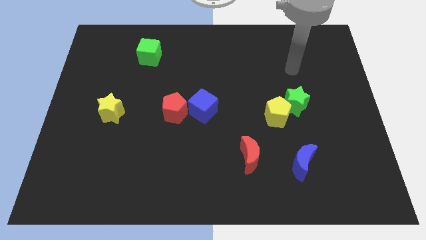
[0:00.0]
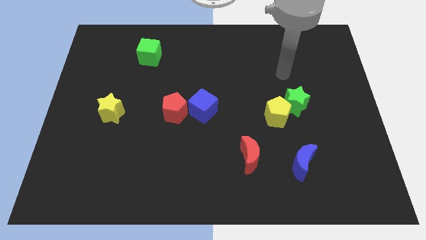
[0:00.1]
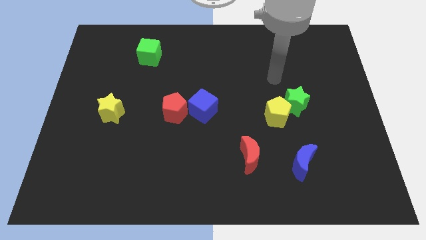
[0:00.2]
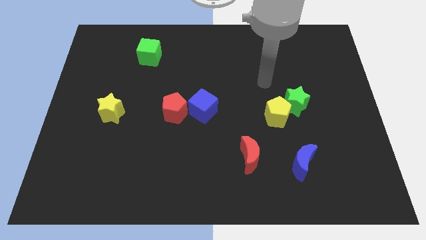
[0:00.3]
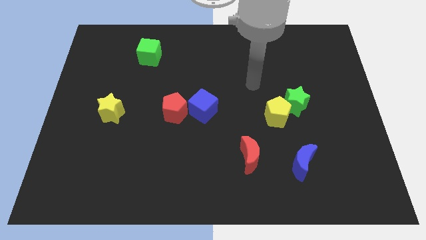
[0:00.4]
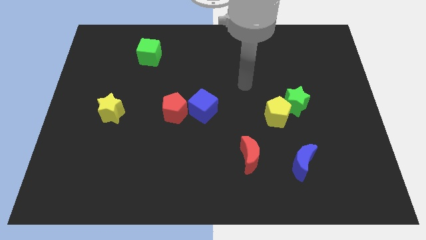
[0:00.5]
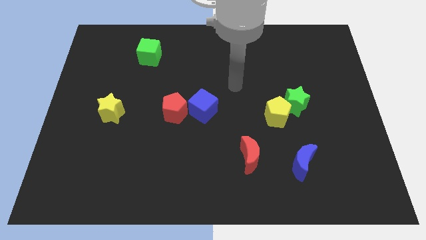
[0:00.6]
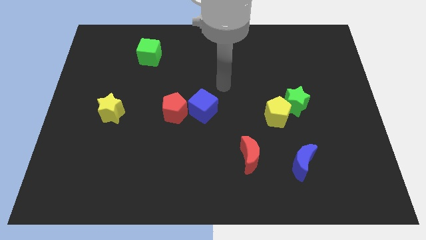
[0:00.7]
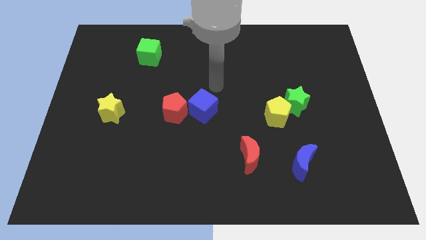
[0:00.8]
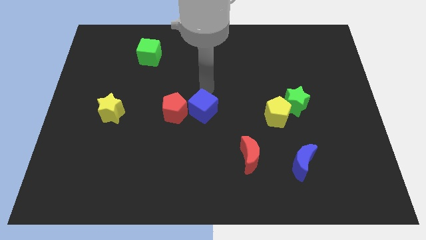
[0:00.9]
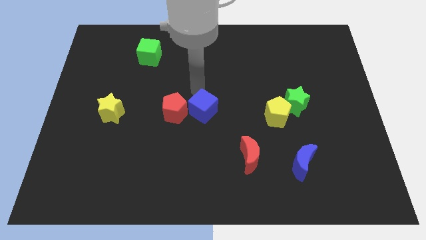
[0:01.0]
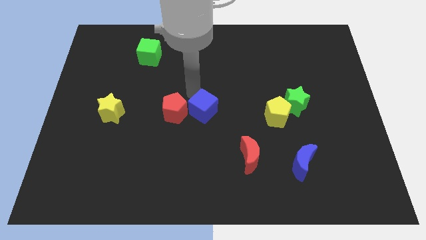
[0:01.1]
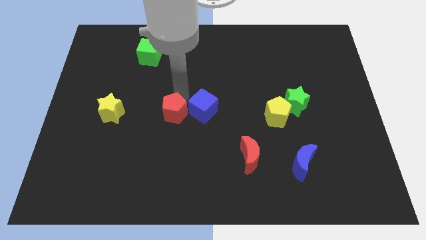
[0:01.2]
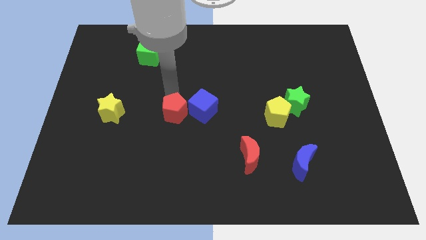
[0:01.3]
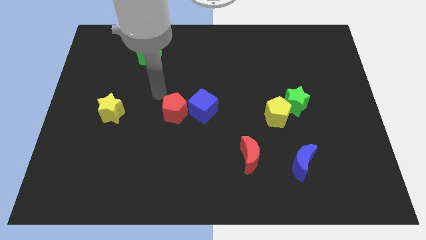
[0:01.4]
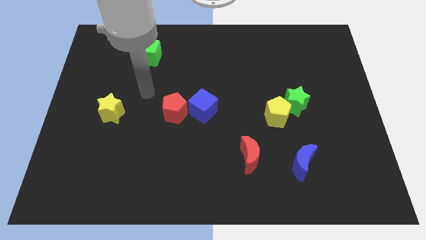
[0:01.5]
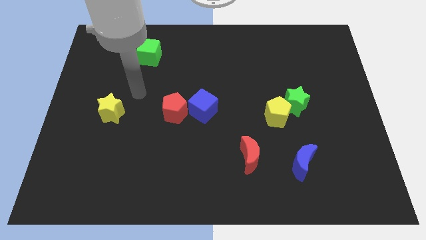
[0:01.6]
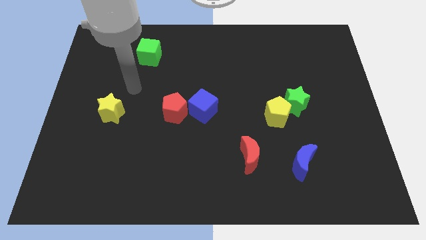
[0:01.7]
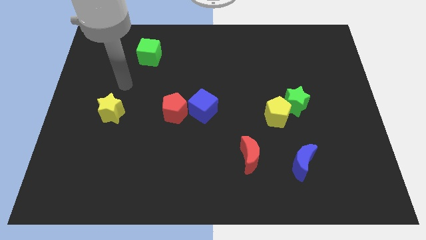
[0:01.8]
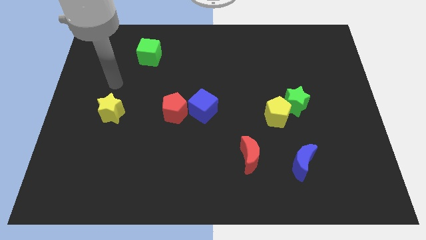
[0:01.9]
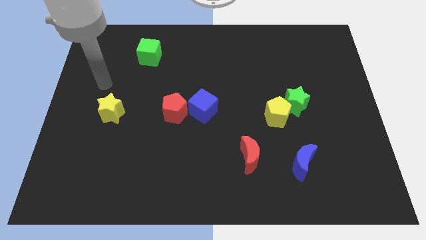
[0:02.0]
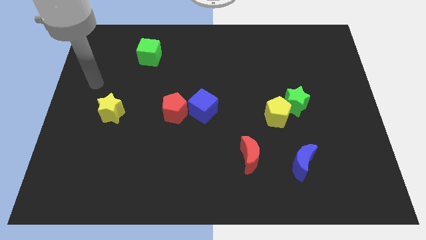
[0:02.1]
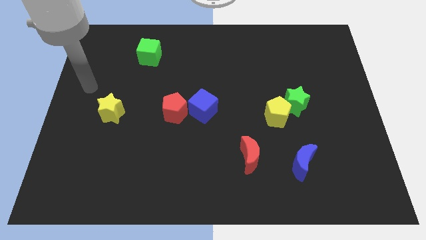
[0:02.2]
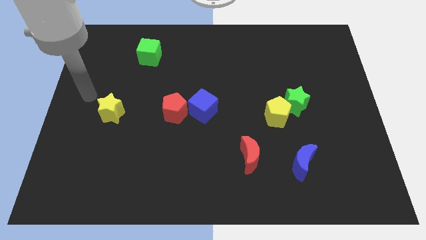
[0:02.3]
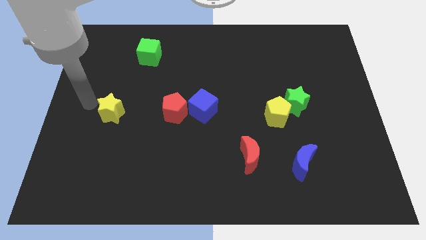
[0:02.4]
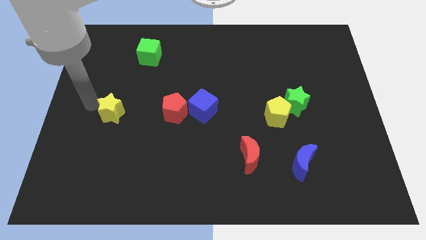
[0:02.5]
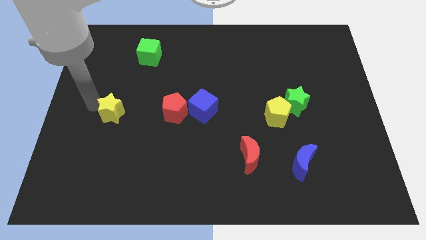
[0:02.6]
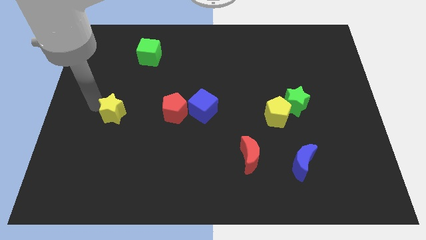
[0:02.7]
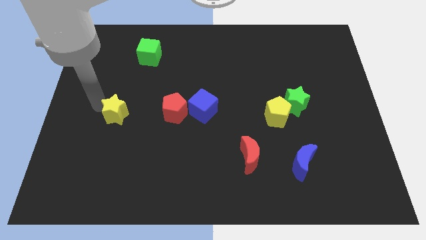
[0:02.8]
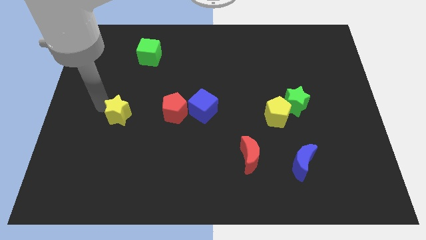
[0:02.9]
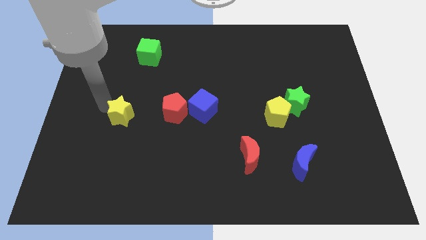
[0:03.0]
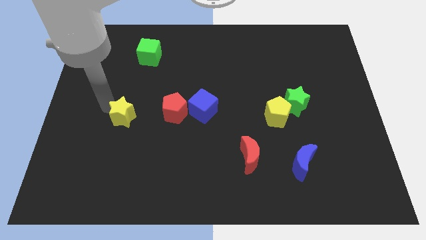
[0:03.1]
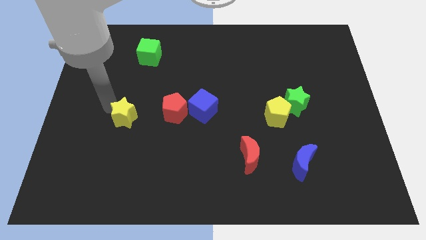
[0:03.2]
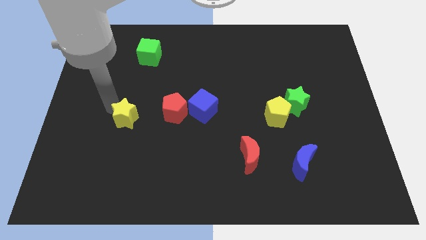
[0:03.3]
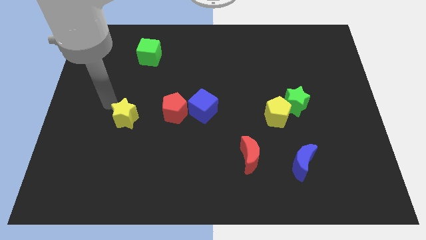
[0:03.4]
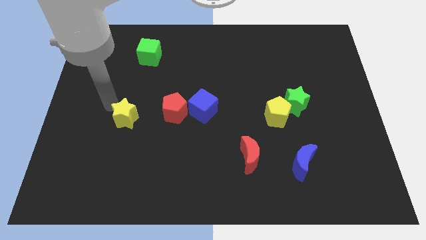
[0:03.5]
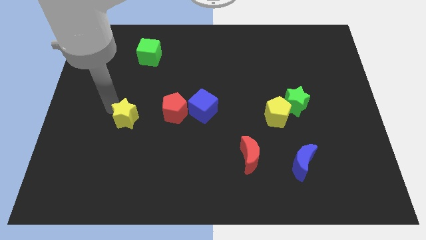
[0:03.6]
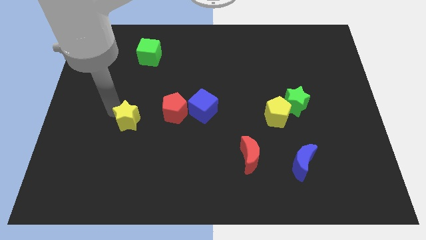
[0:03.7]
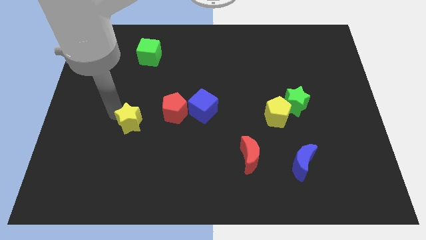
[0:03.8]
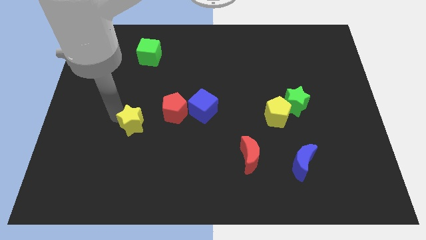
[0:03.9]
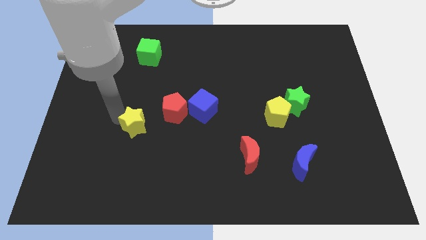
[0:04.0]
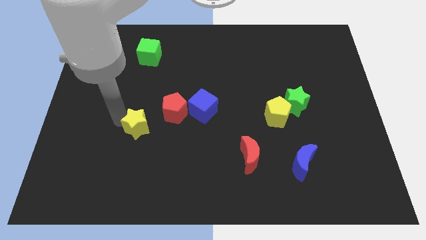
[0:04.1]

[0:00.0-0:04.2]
push the yellow star a bit down and then to the right

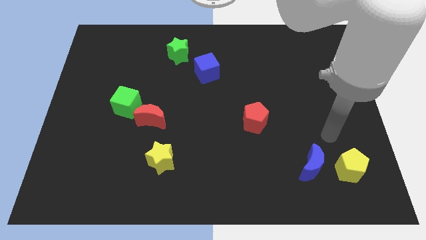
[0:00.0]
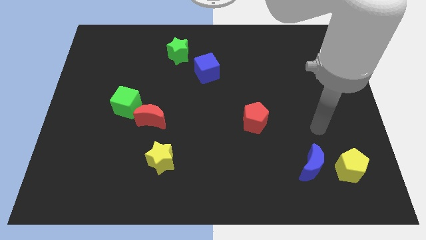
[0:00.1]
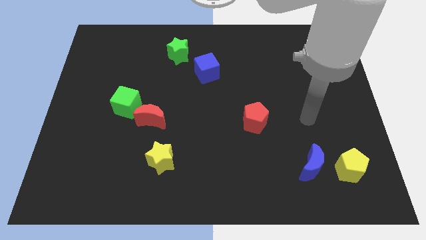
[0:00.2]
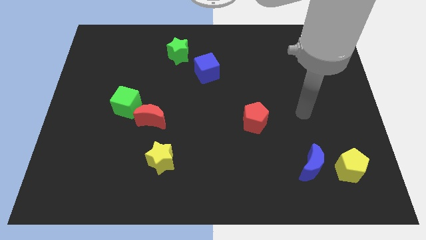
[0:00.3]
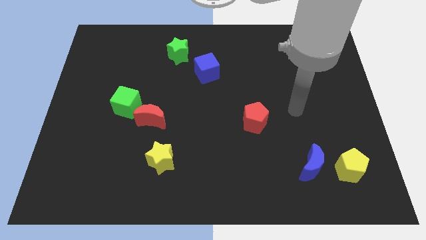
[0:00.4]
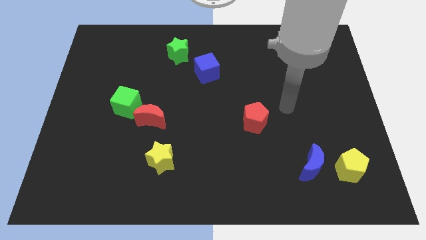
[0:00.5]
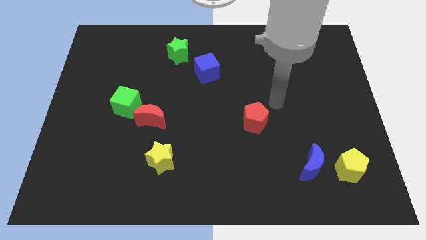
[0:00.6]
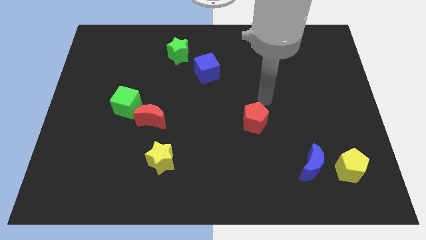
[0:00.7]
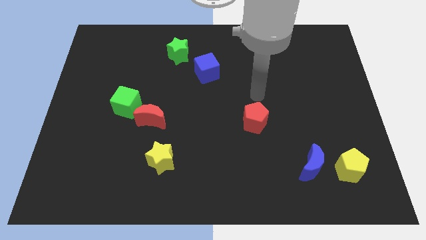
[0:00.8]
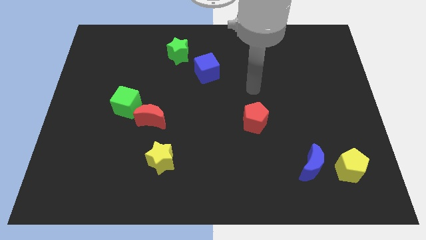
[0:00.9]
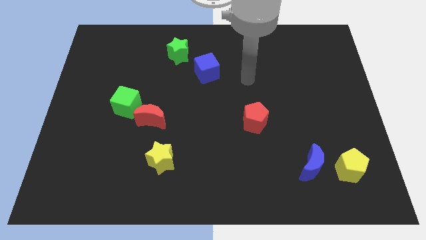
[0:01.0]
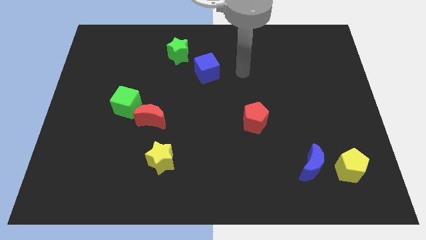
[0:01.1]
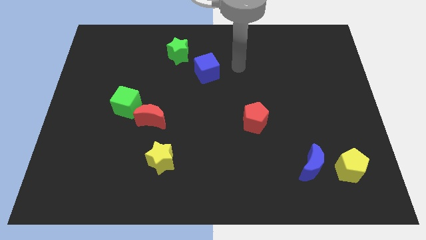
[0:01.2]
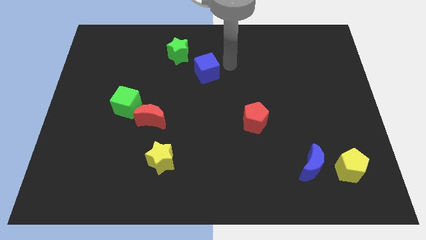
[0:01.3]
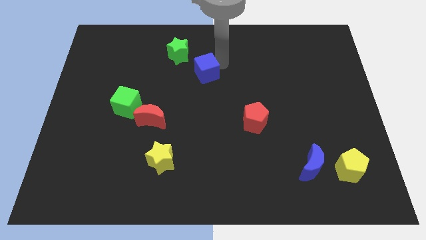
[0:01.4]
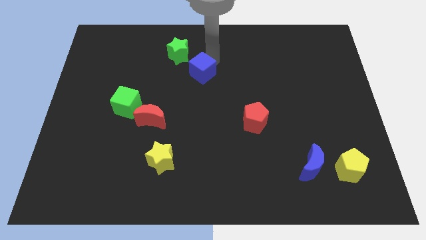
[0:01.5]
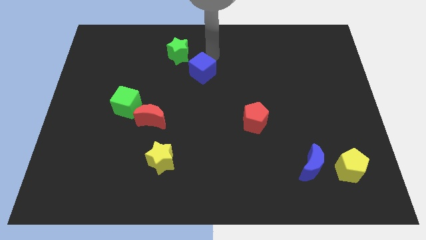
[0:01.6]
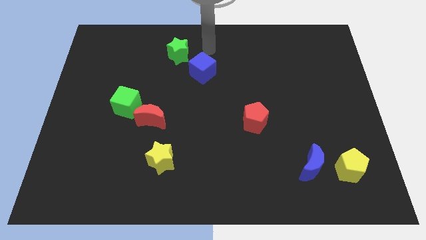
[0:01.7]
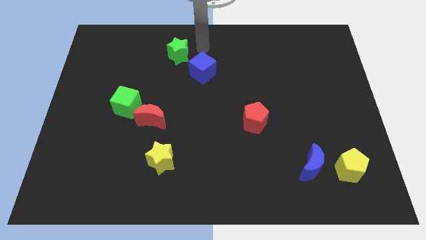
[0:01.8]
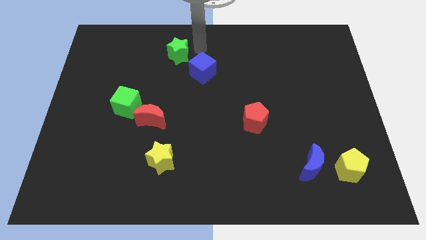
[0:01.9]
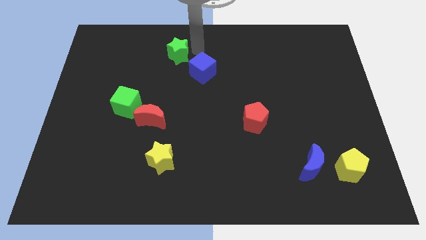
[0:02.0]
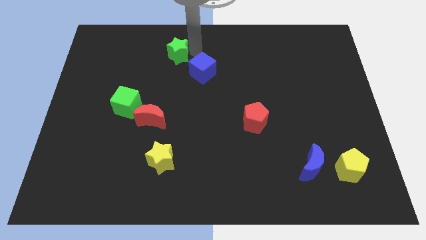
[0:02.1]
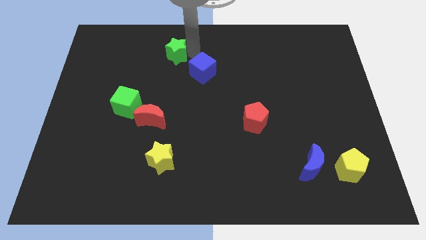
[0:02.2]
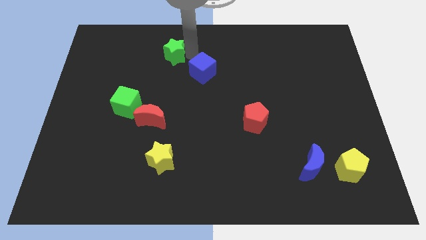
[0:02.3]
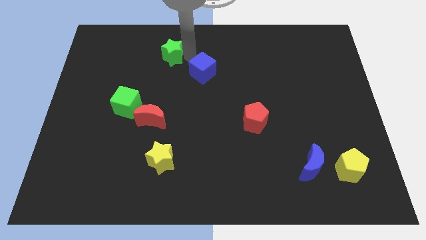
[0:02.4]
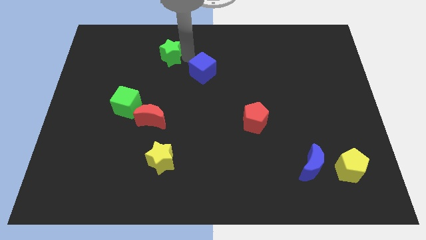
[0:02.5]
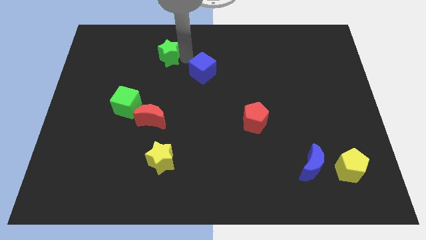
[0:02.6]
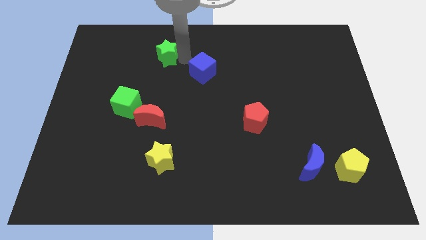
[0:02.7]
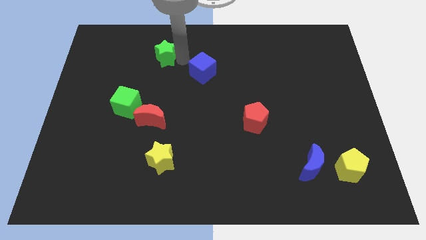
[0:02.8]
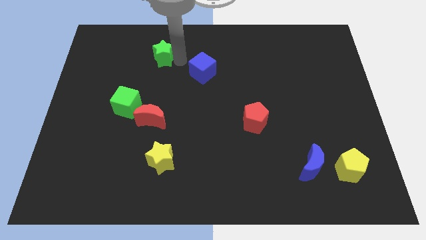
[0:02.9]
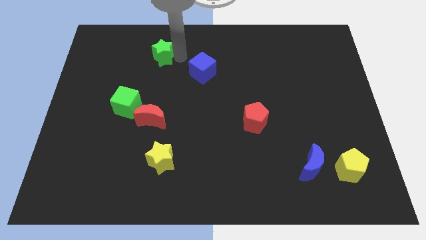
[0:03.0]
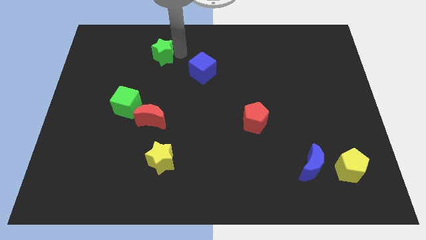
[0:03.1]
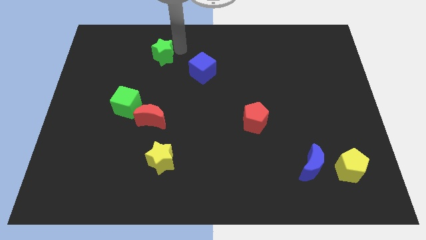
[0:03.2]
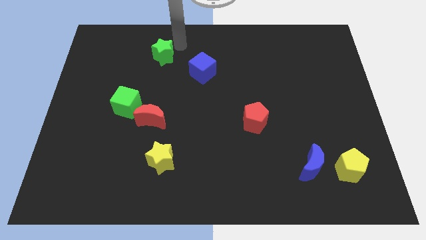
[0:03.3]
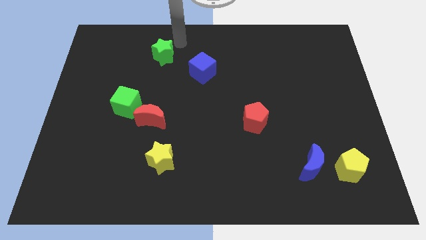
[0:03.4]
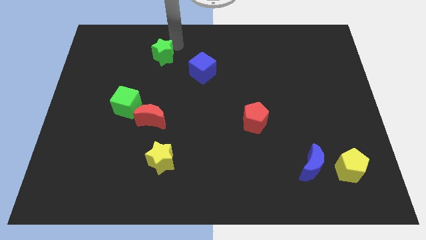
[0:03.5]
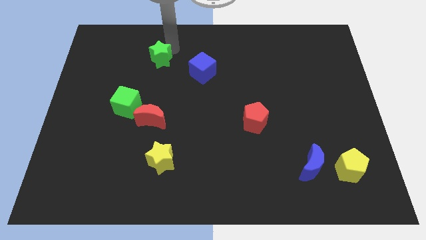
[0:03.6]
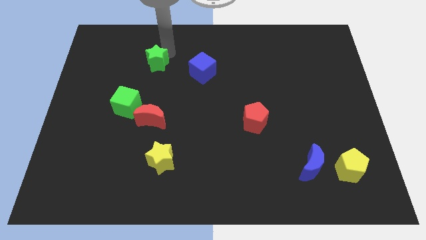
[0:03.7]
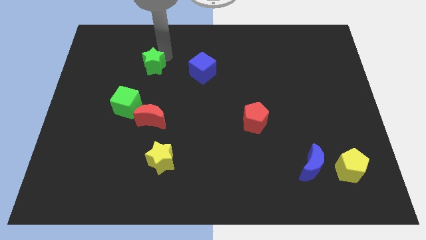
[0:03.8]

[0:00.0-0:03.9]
move the green star a little down and left diagonally
